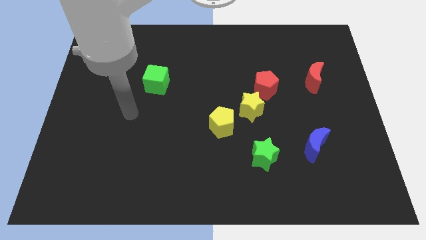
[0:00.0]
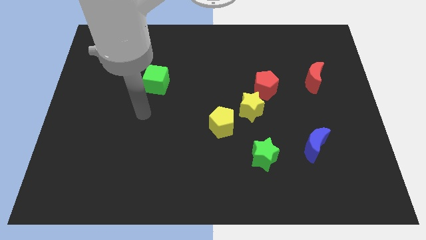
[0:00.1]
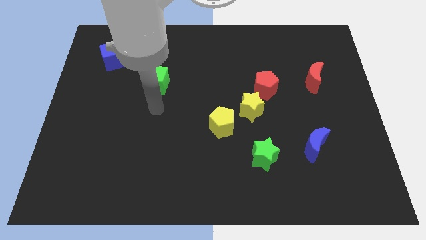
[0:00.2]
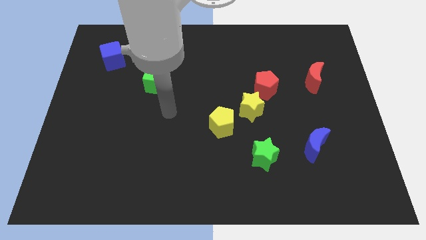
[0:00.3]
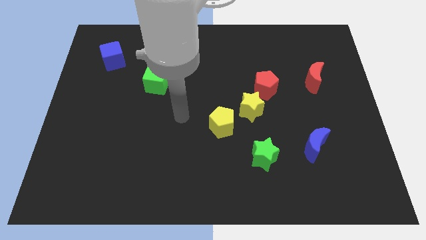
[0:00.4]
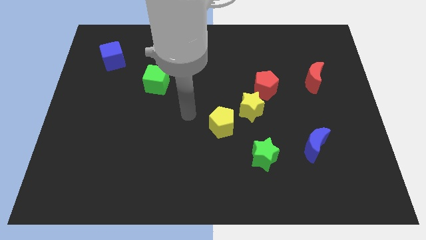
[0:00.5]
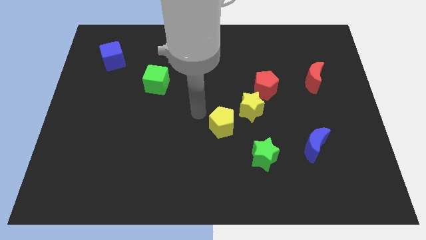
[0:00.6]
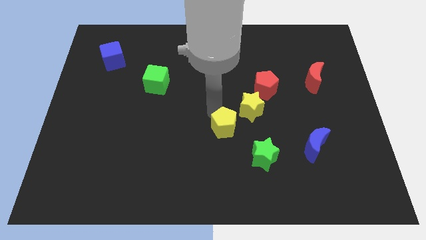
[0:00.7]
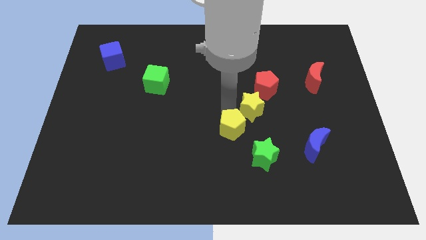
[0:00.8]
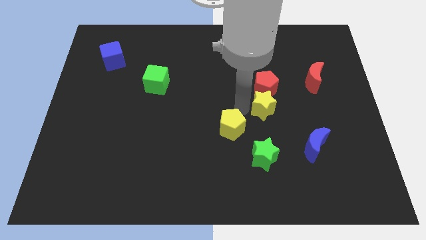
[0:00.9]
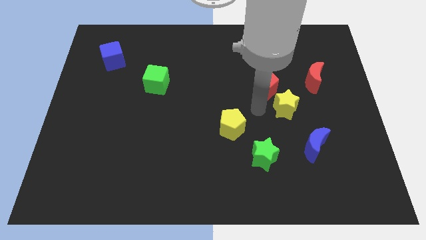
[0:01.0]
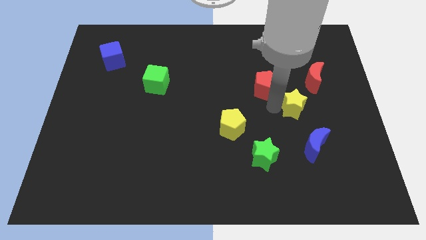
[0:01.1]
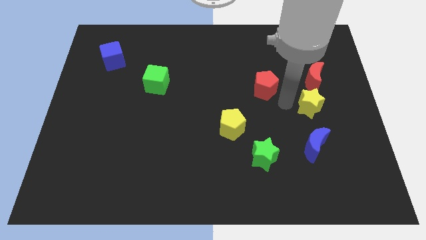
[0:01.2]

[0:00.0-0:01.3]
separate the red pentagon from the yellow star

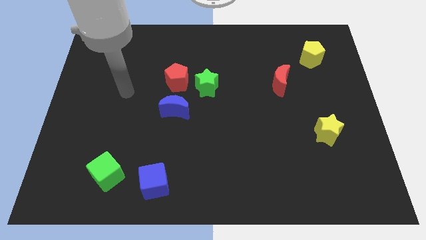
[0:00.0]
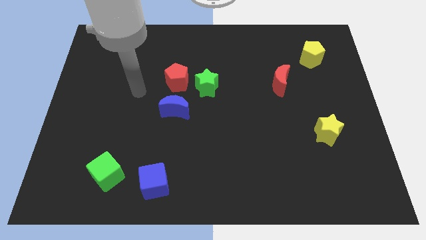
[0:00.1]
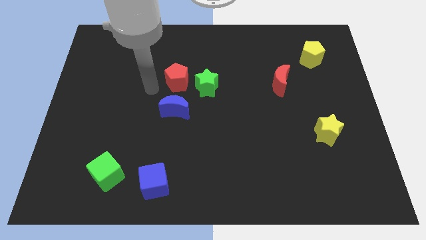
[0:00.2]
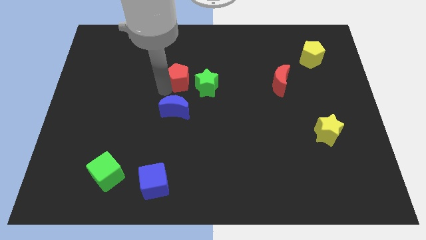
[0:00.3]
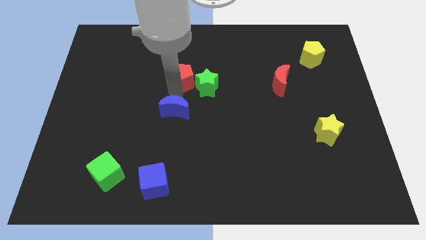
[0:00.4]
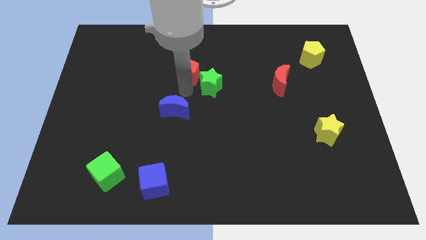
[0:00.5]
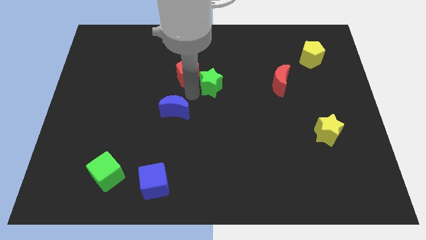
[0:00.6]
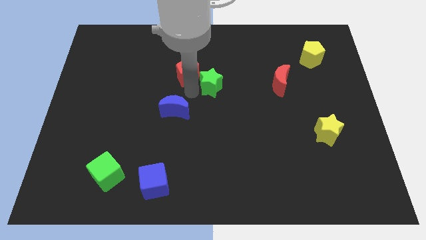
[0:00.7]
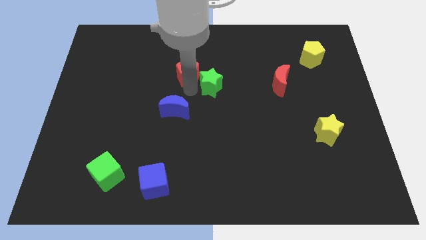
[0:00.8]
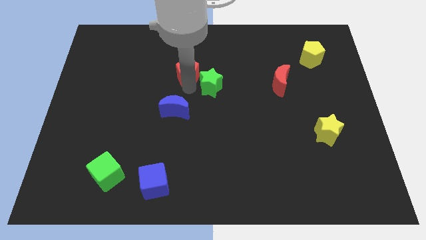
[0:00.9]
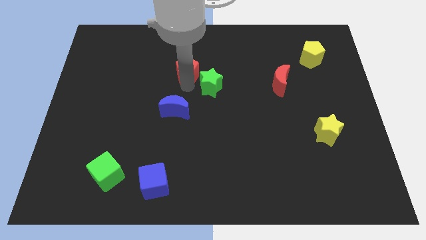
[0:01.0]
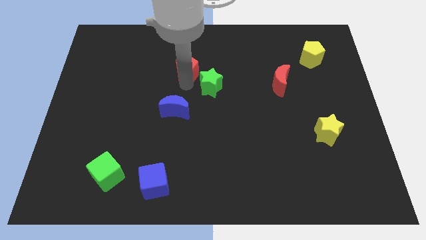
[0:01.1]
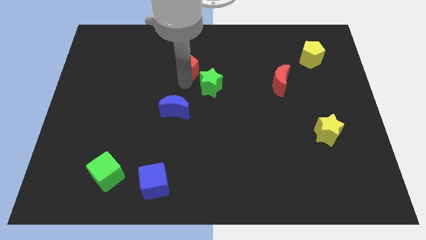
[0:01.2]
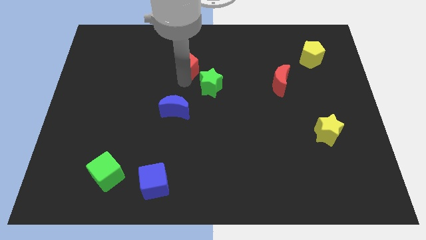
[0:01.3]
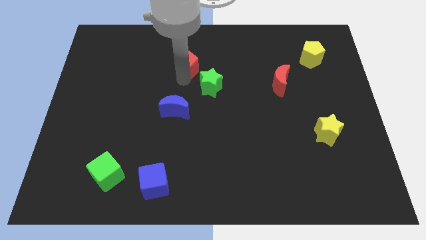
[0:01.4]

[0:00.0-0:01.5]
separate the red pentagon from the green star and blue moon

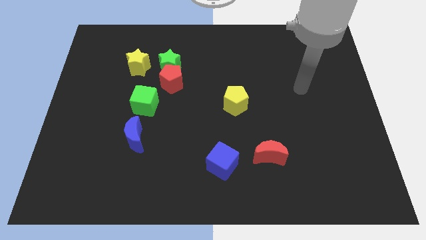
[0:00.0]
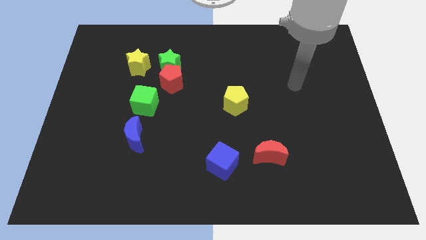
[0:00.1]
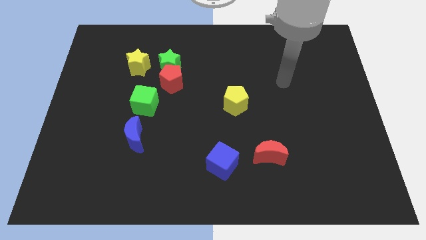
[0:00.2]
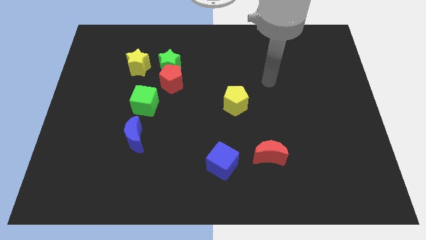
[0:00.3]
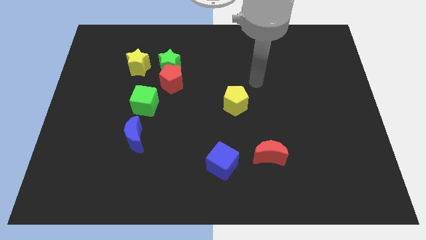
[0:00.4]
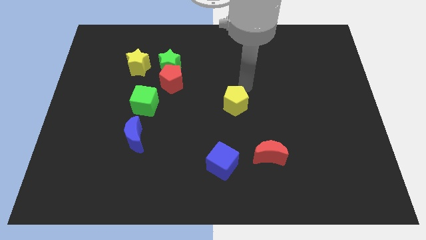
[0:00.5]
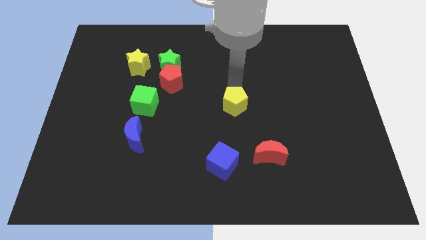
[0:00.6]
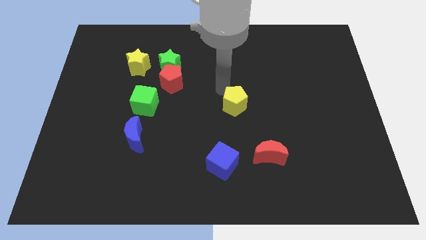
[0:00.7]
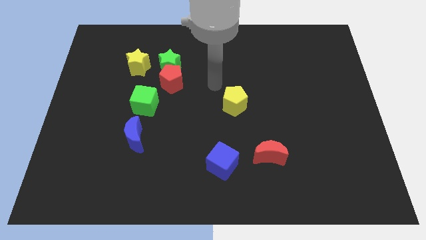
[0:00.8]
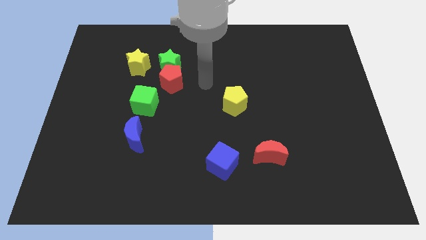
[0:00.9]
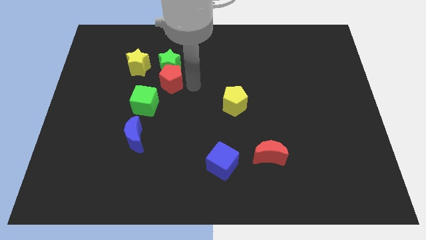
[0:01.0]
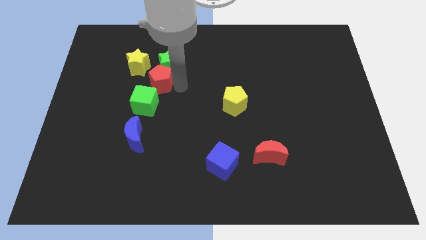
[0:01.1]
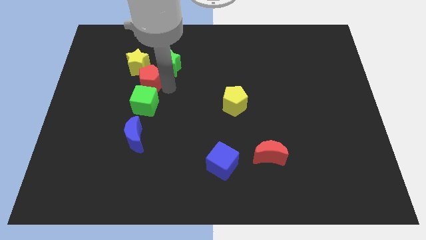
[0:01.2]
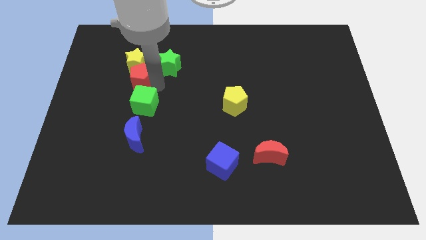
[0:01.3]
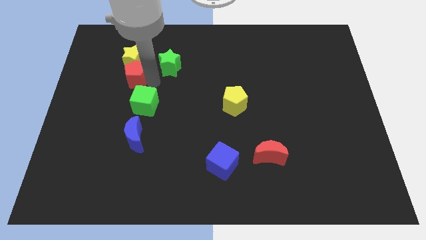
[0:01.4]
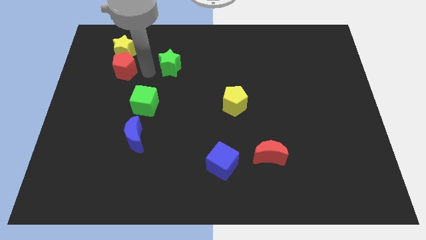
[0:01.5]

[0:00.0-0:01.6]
separate the green star from the red pentagon and yellow star

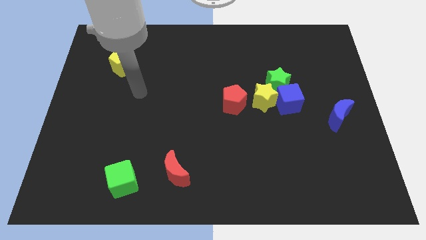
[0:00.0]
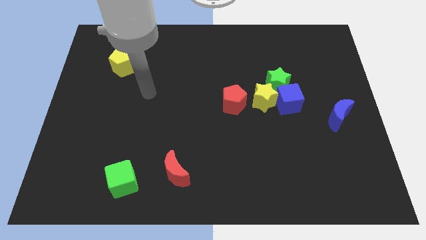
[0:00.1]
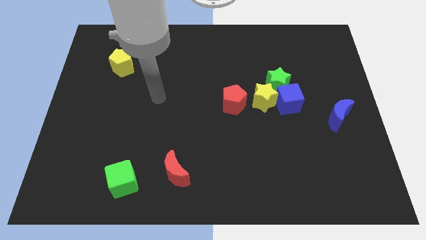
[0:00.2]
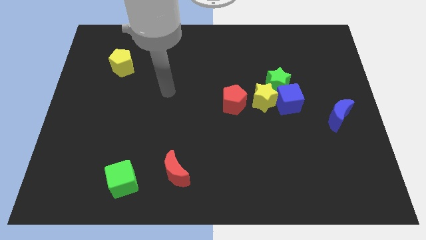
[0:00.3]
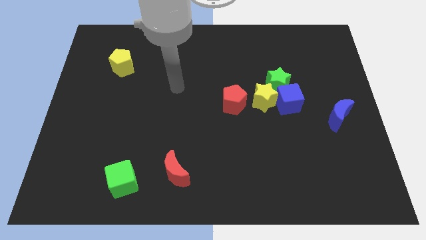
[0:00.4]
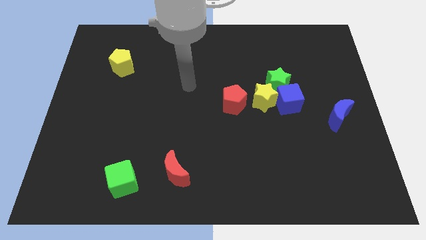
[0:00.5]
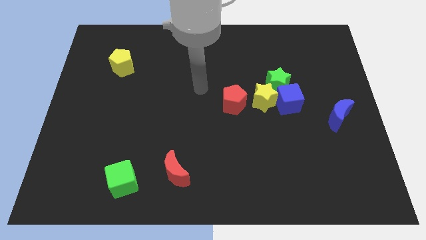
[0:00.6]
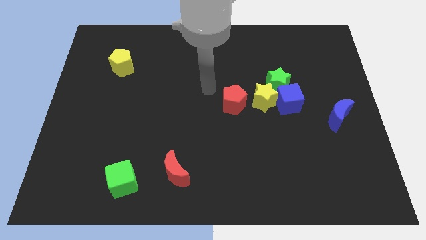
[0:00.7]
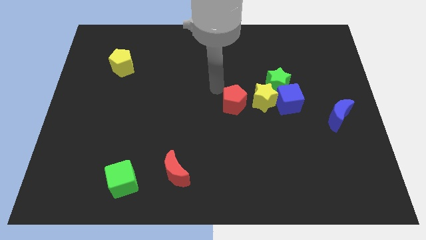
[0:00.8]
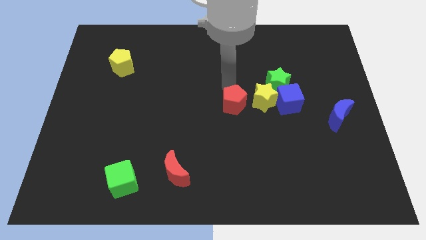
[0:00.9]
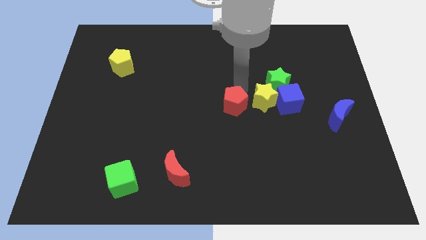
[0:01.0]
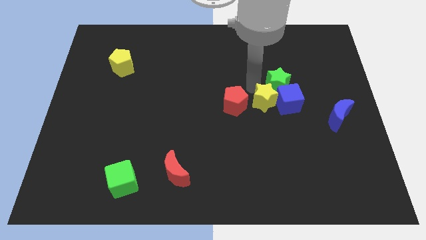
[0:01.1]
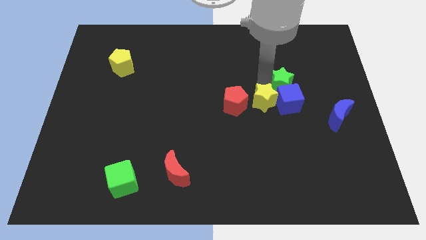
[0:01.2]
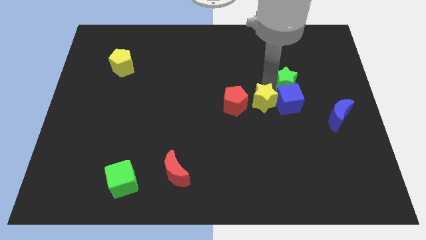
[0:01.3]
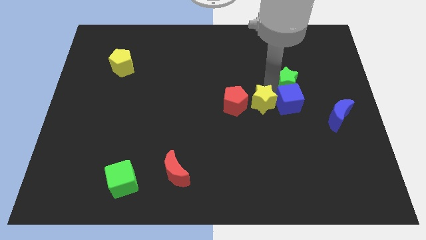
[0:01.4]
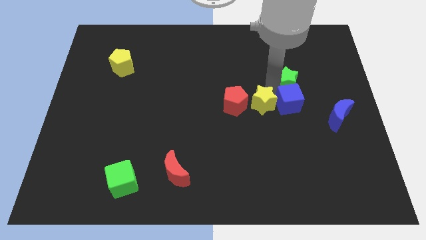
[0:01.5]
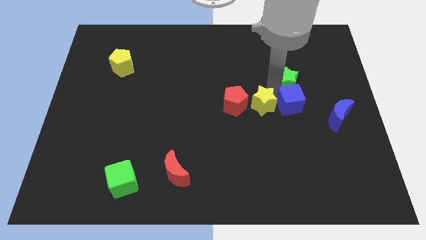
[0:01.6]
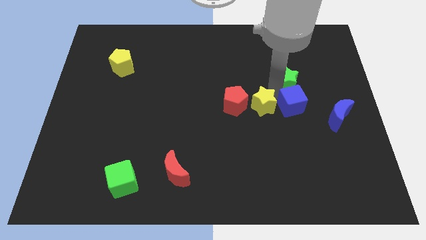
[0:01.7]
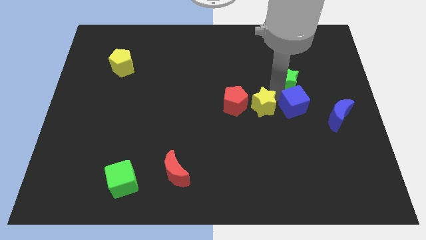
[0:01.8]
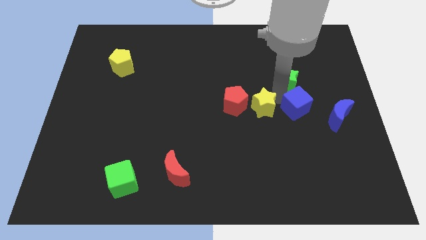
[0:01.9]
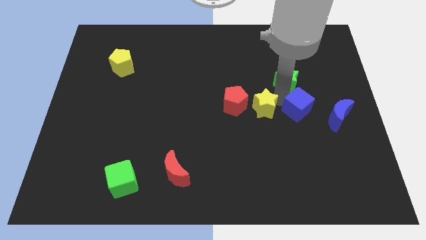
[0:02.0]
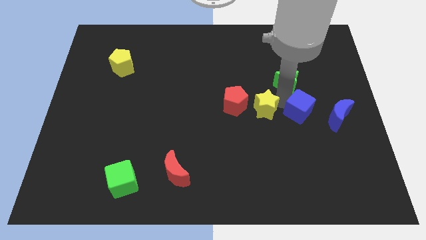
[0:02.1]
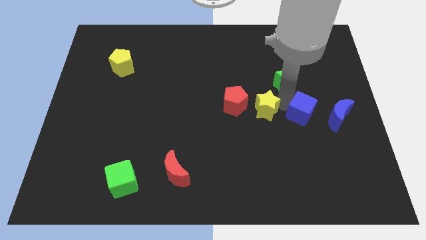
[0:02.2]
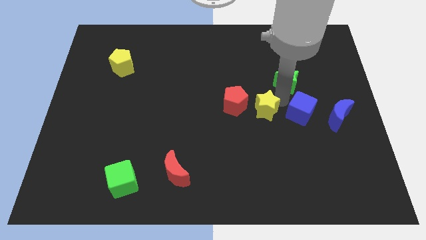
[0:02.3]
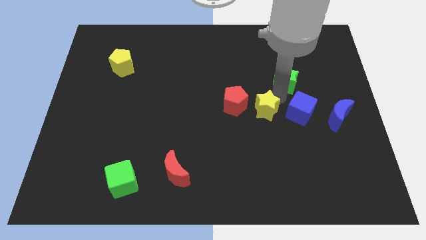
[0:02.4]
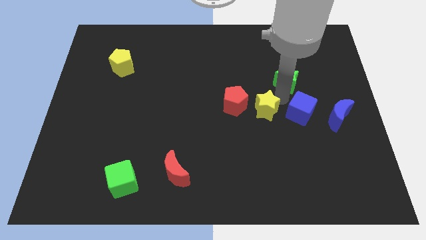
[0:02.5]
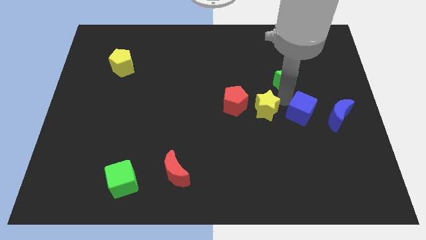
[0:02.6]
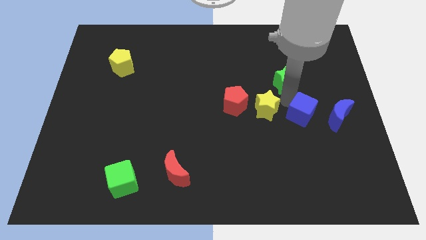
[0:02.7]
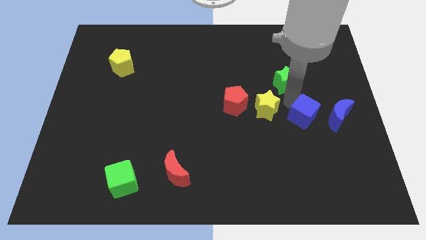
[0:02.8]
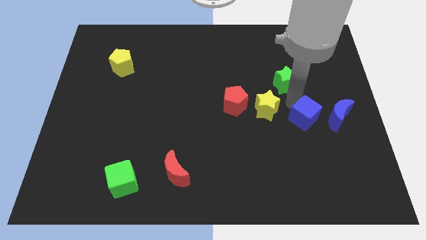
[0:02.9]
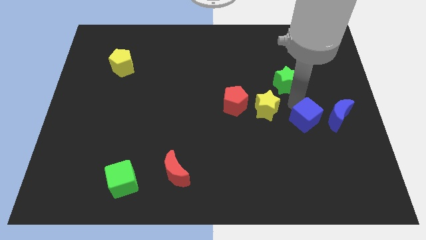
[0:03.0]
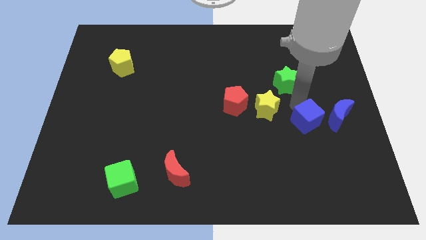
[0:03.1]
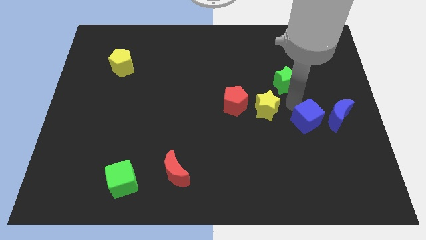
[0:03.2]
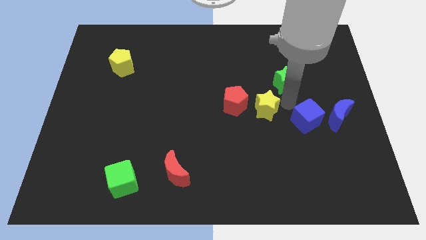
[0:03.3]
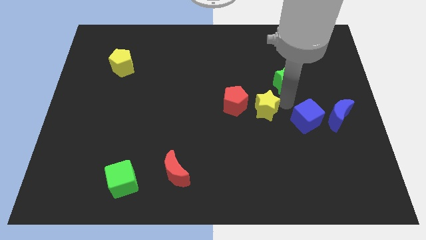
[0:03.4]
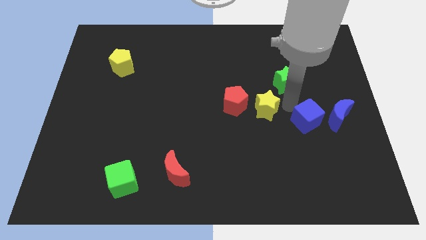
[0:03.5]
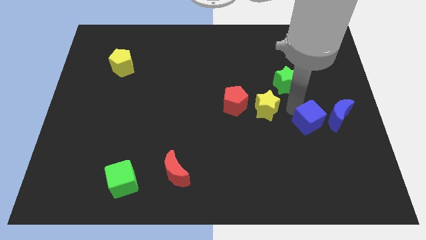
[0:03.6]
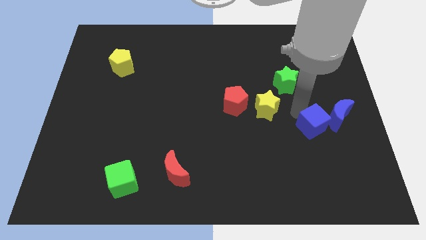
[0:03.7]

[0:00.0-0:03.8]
pull the blue cube apart from the yellow star and green star

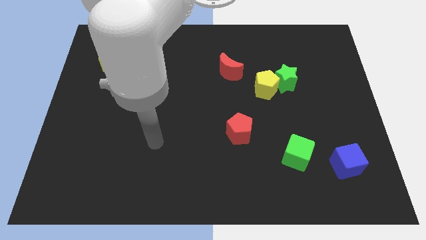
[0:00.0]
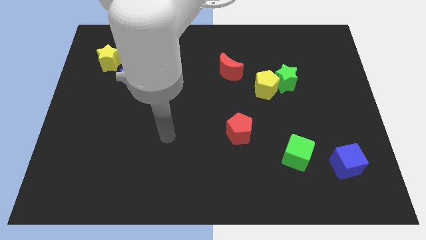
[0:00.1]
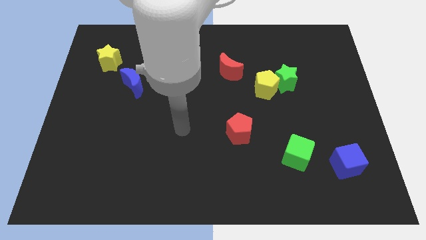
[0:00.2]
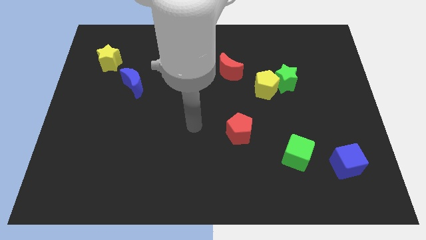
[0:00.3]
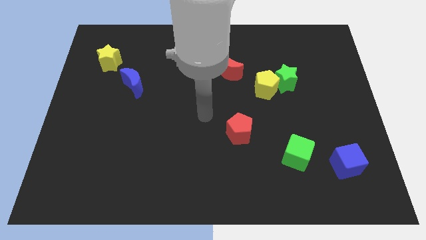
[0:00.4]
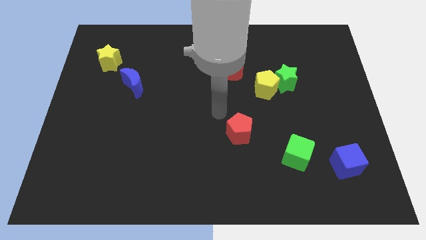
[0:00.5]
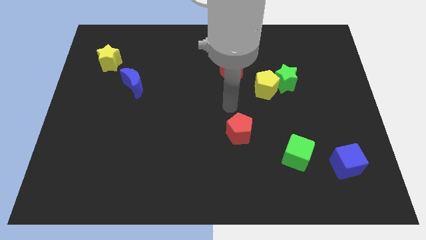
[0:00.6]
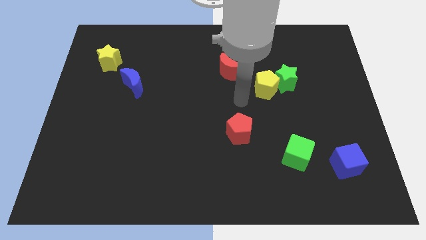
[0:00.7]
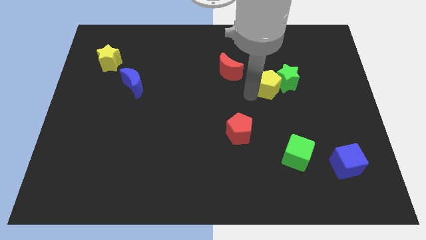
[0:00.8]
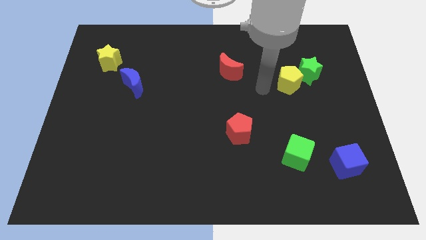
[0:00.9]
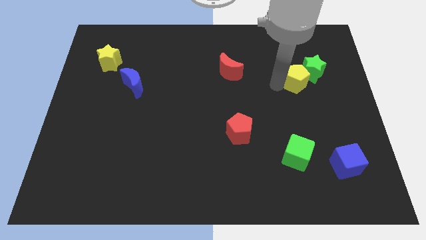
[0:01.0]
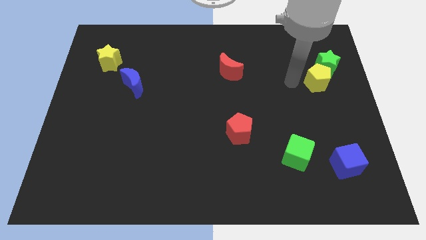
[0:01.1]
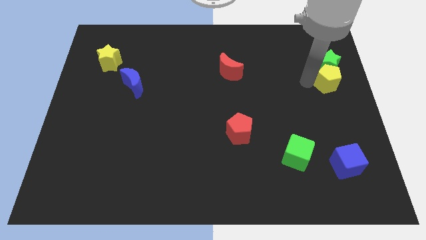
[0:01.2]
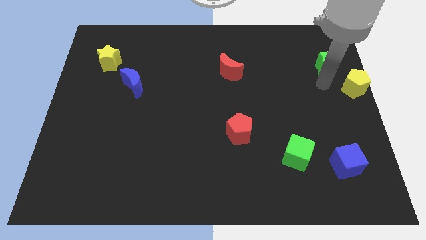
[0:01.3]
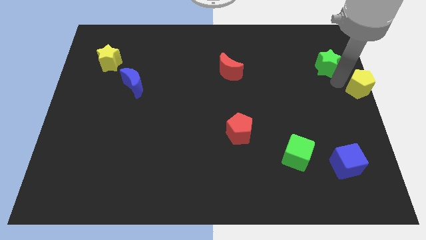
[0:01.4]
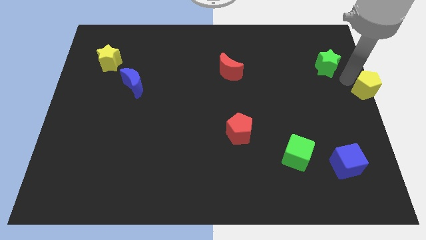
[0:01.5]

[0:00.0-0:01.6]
pull the green star apart from the yellow pentagon
